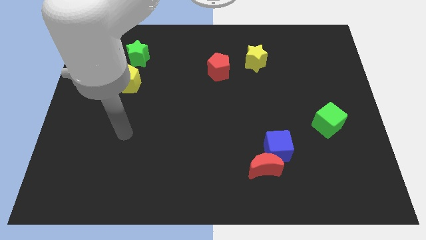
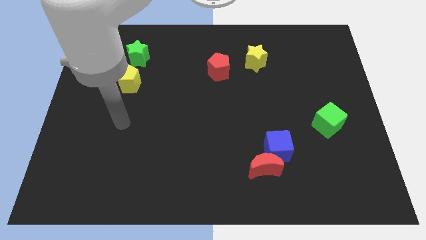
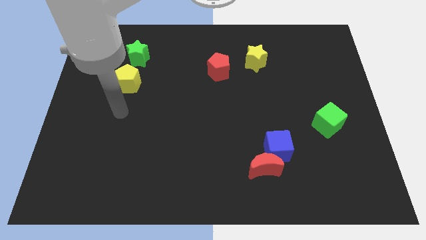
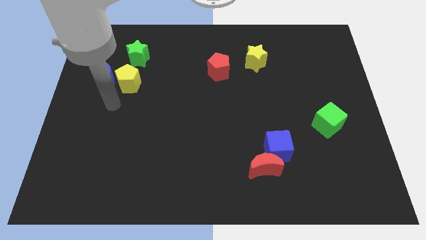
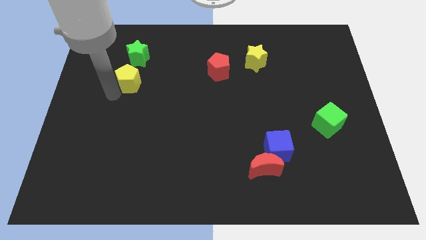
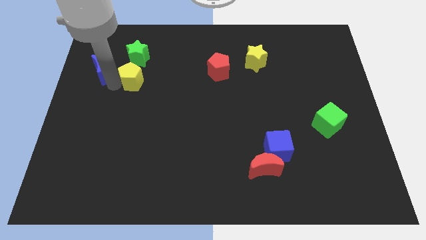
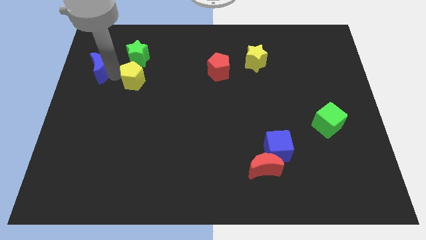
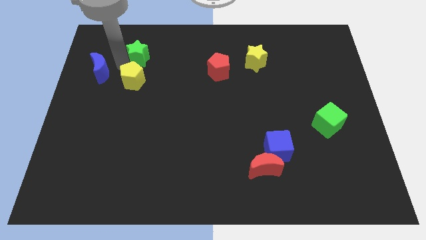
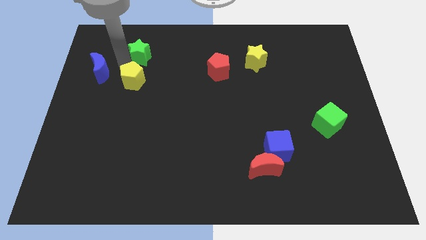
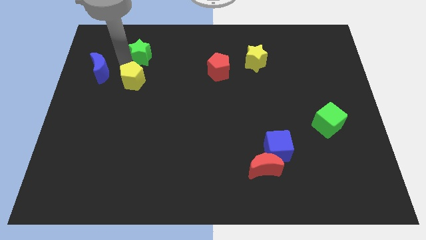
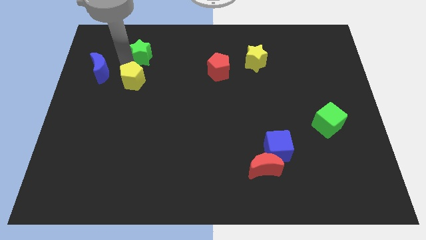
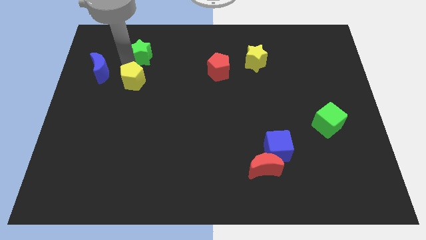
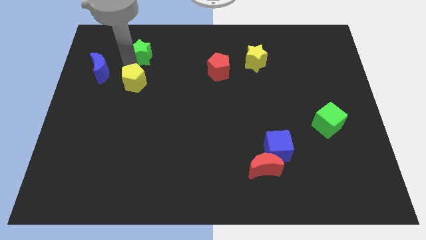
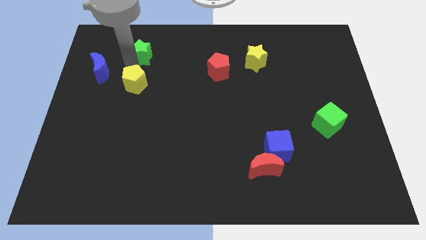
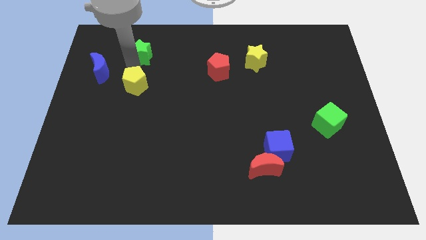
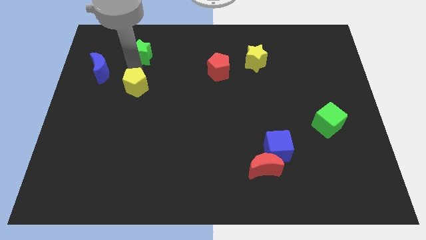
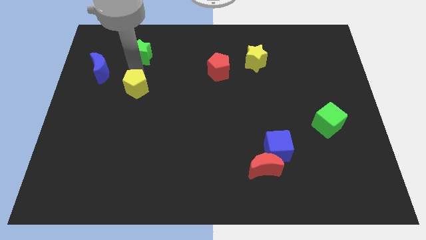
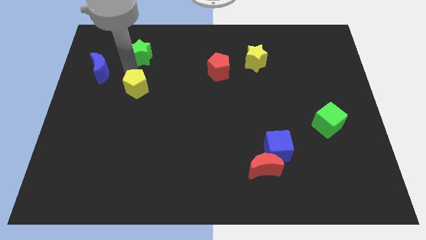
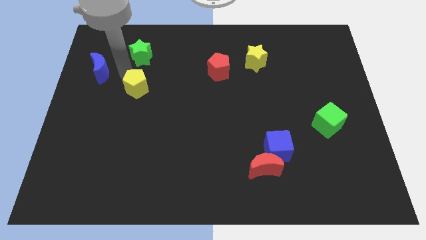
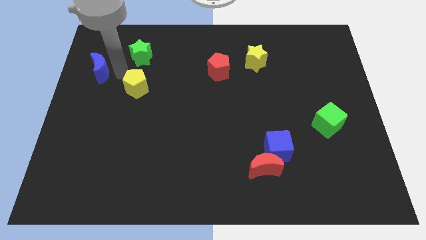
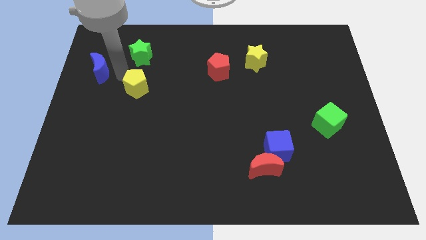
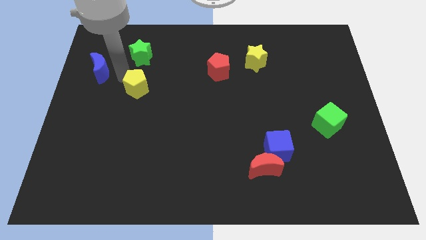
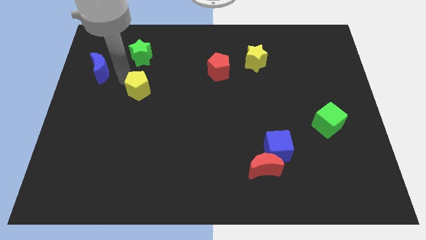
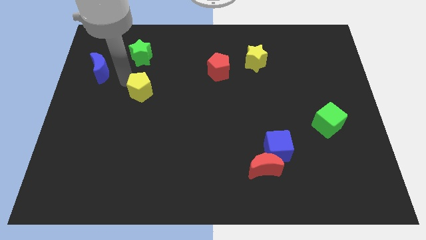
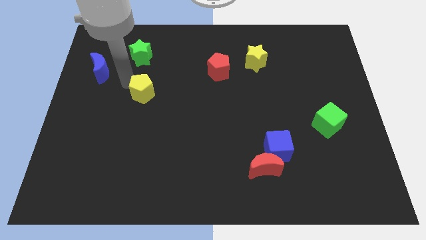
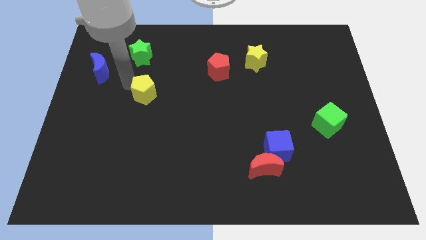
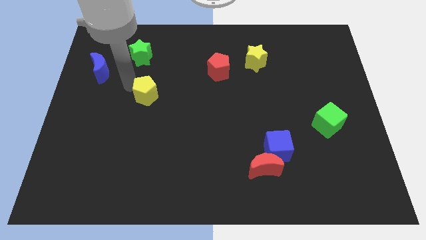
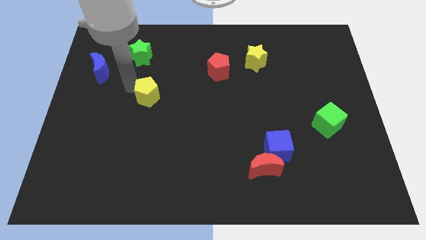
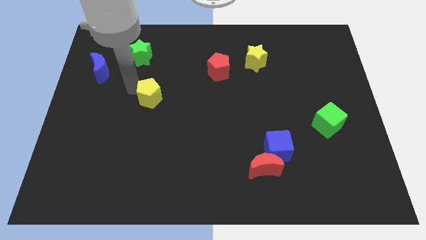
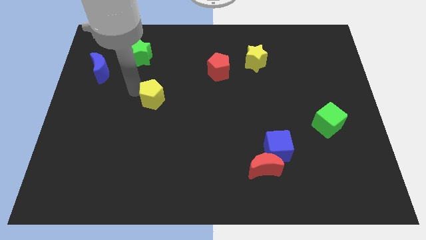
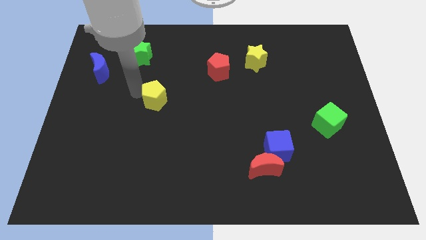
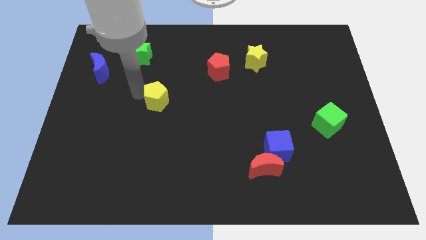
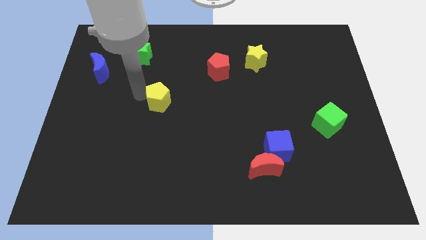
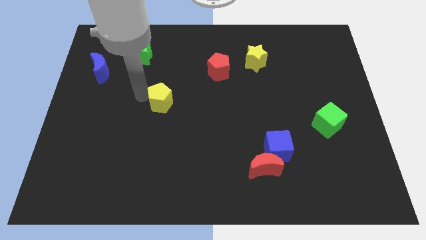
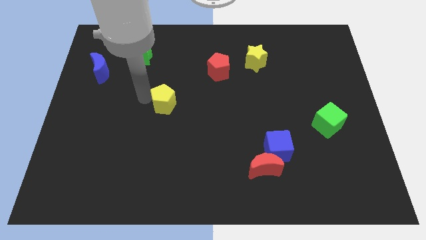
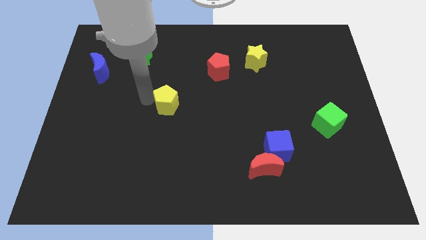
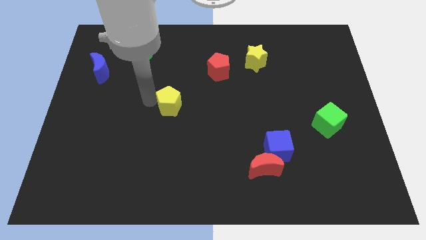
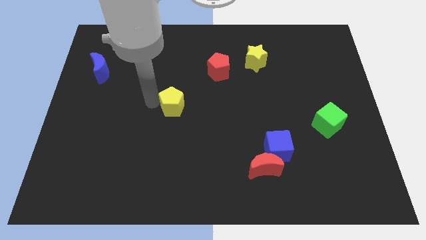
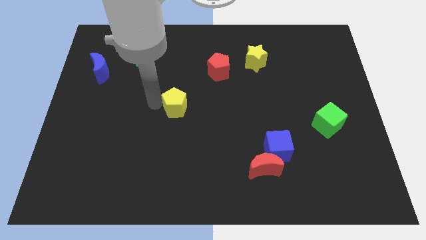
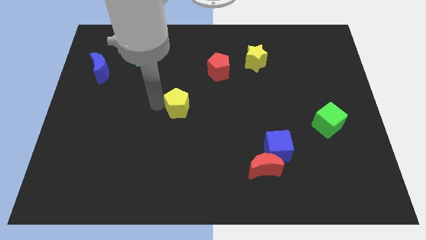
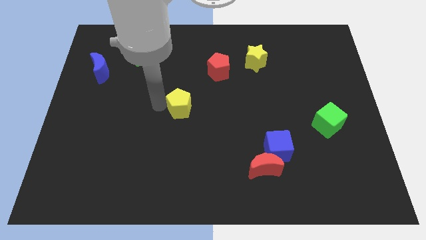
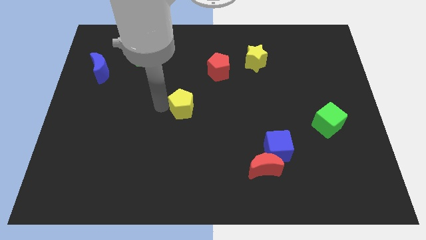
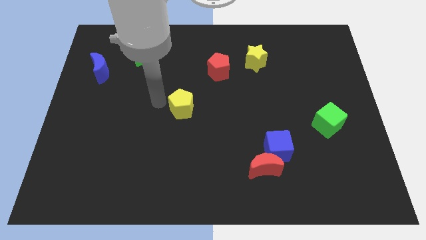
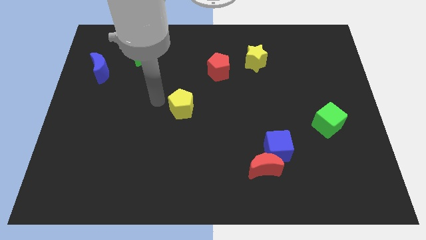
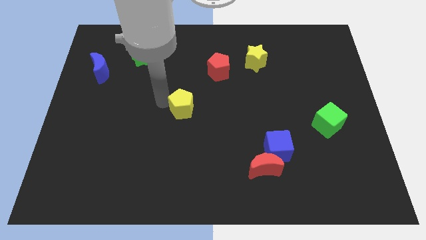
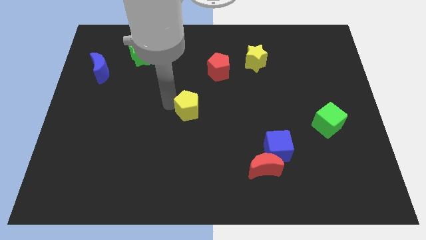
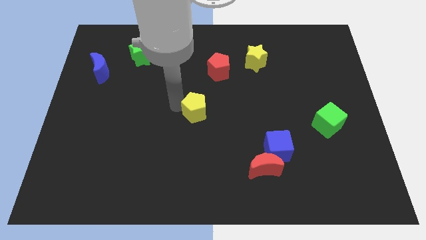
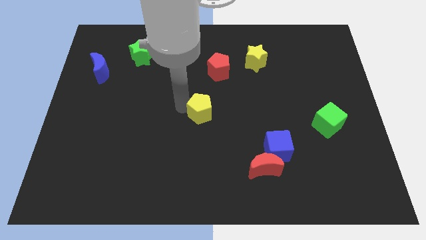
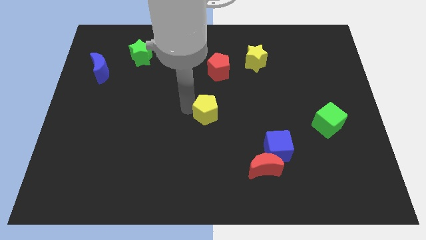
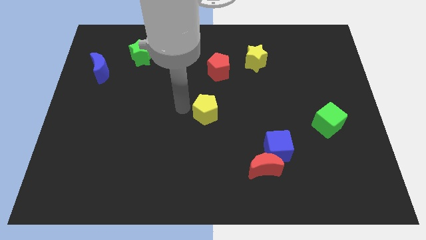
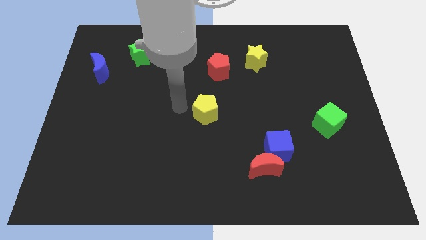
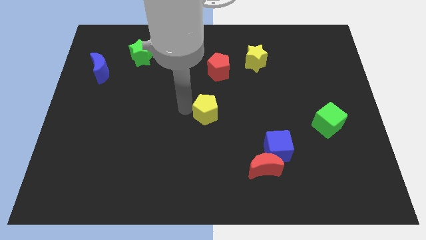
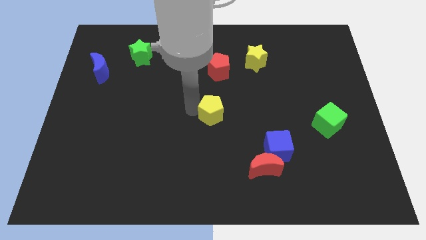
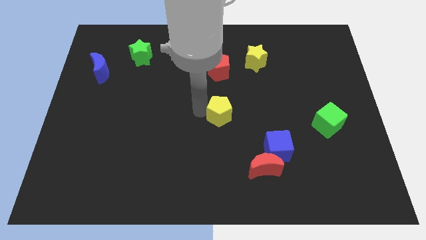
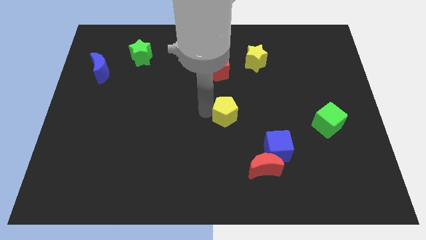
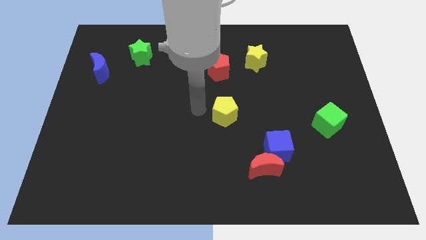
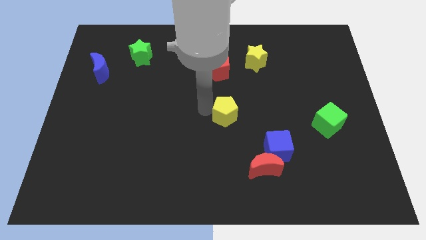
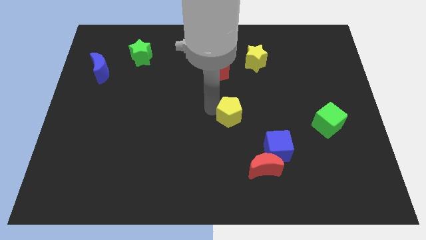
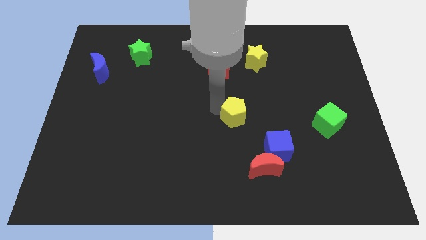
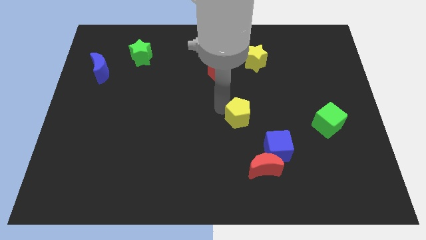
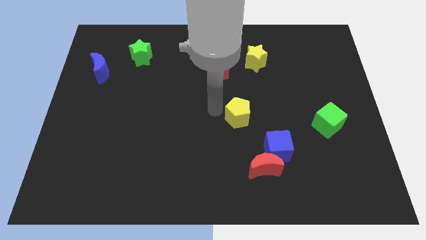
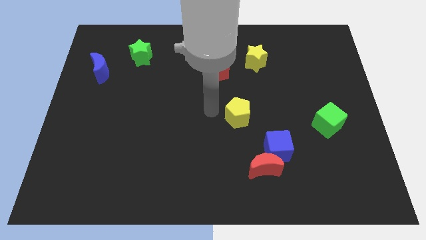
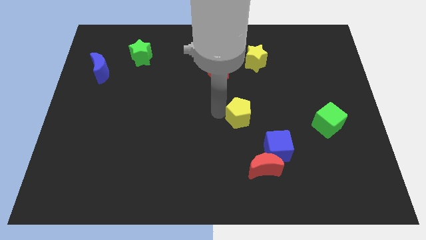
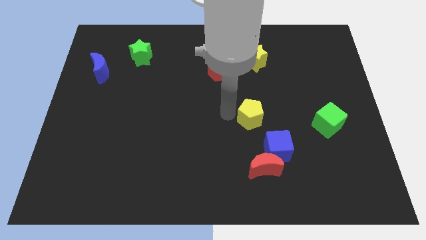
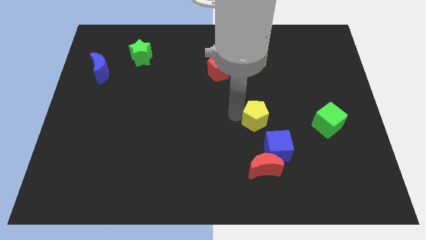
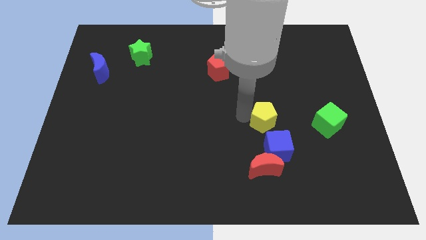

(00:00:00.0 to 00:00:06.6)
slide the yellow pentagon to the left of the green cube

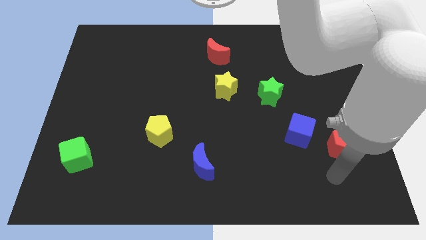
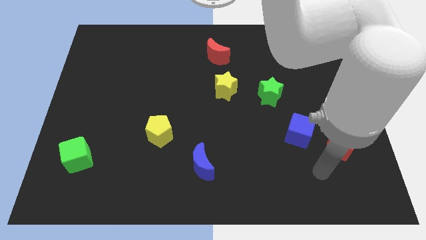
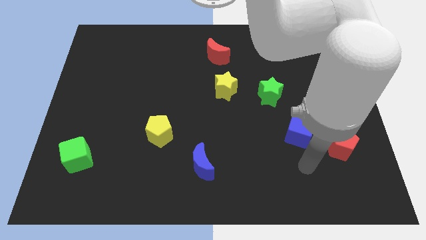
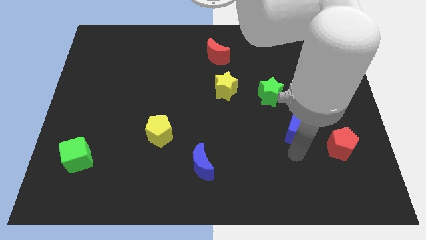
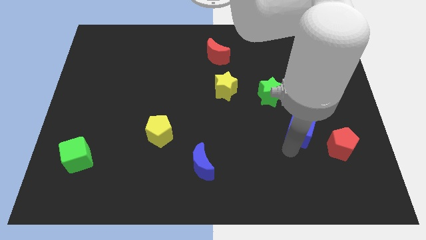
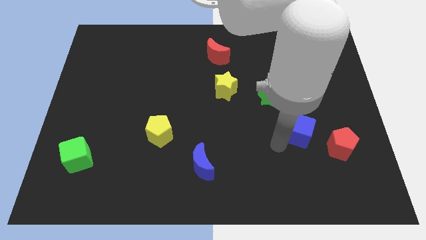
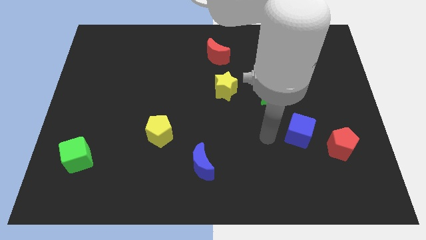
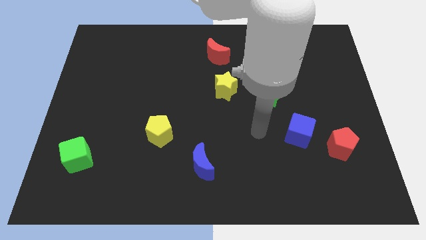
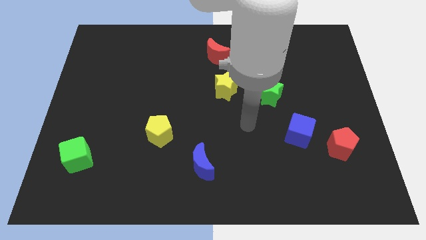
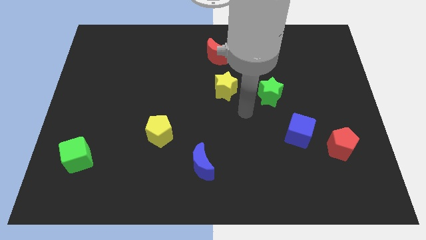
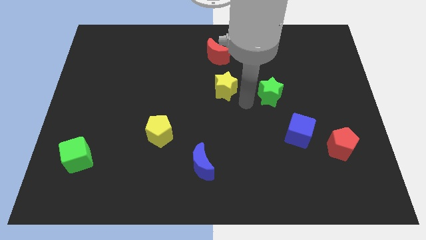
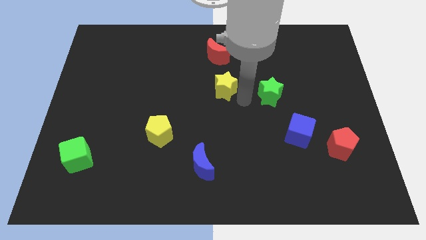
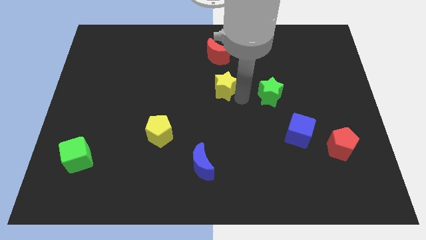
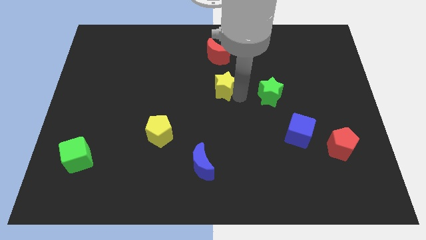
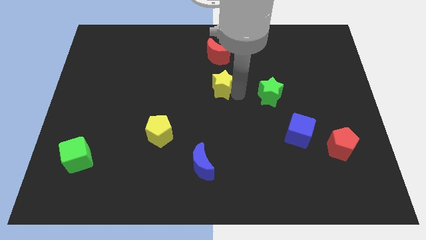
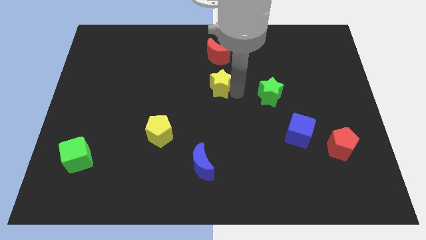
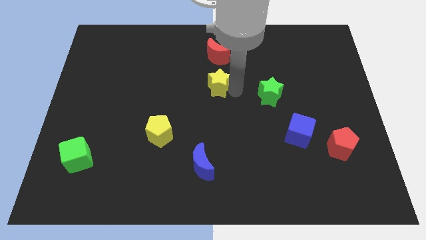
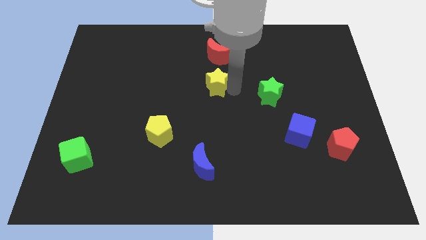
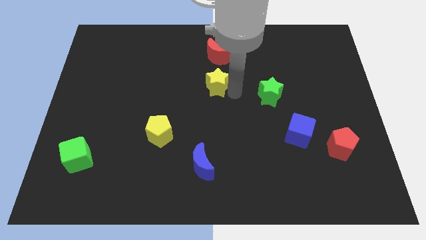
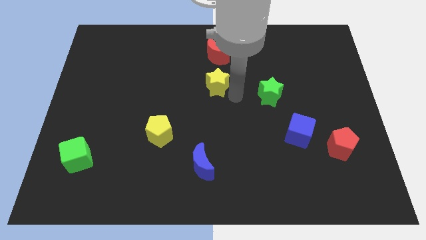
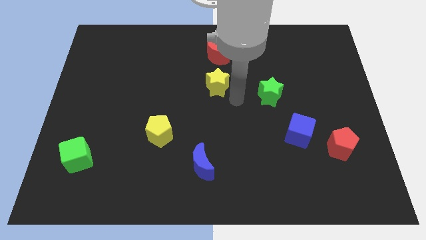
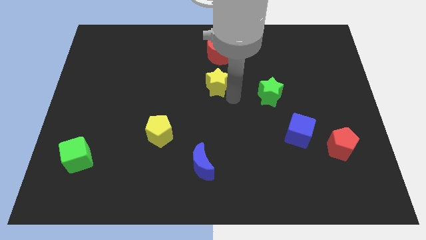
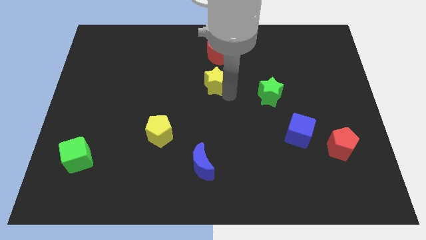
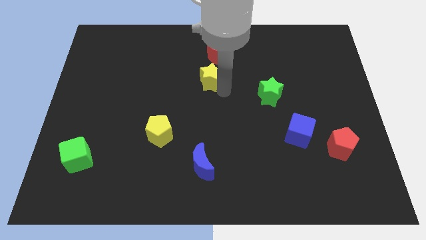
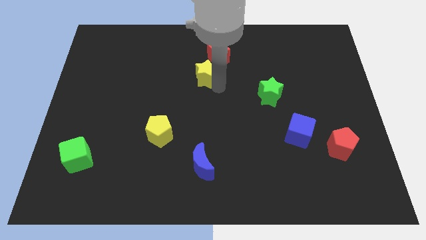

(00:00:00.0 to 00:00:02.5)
put the yellow star to the bottom left side of the red moon
